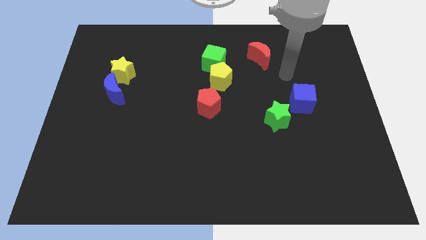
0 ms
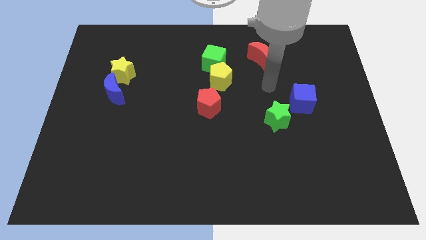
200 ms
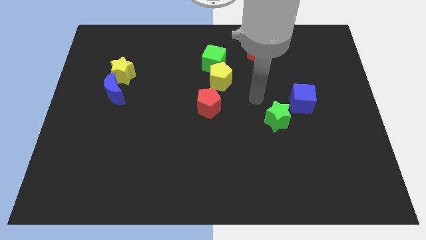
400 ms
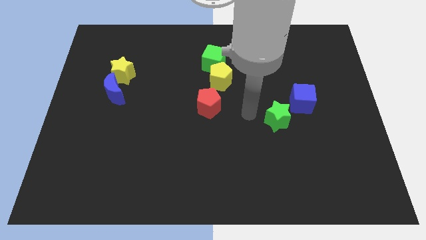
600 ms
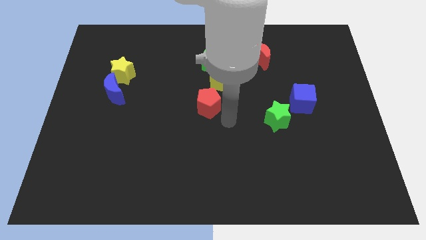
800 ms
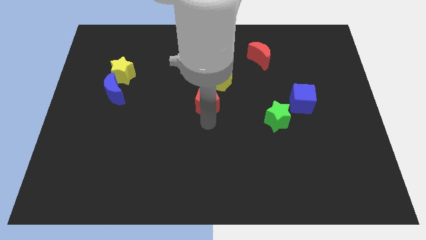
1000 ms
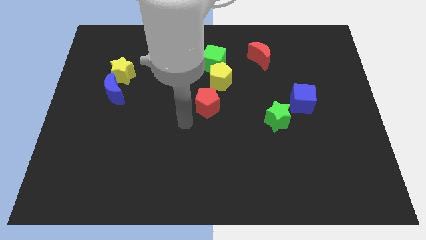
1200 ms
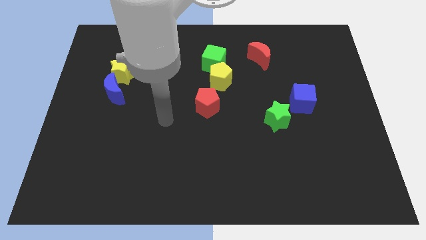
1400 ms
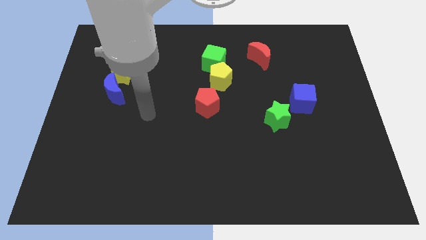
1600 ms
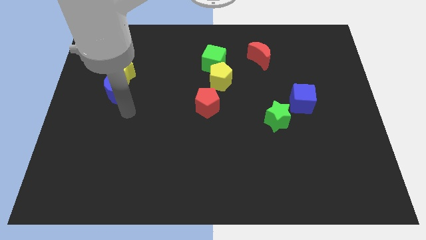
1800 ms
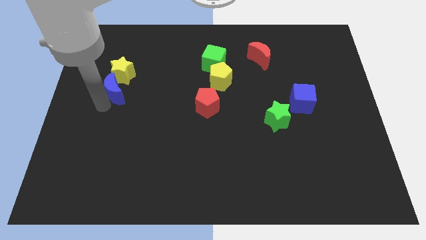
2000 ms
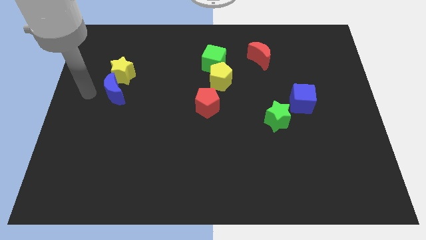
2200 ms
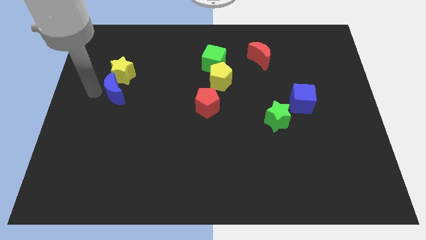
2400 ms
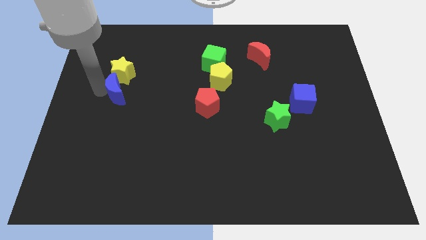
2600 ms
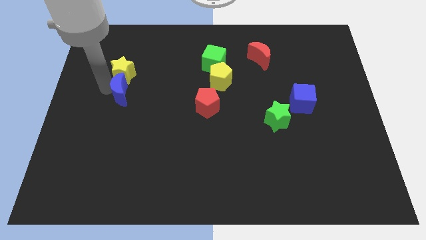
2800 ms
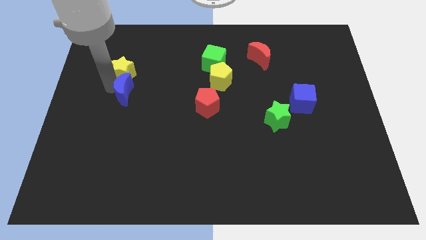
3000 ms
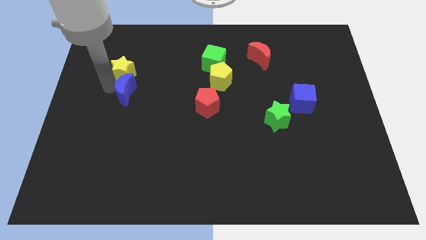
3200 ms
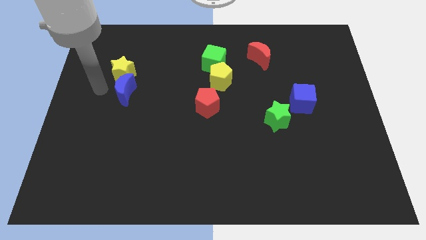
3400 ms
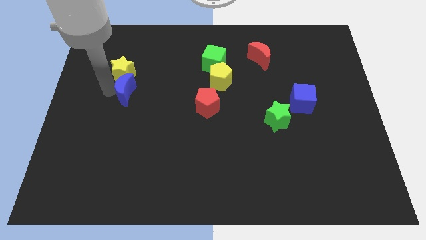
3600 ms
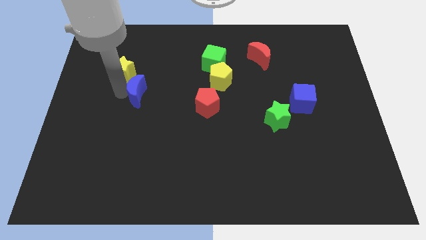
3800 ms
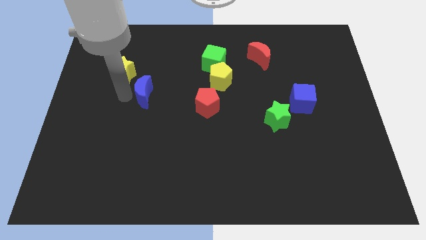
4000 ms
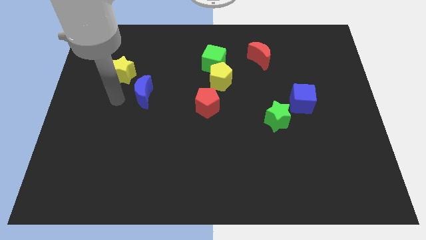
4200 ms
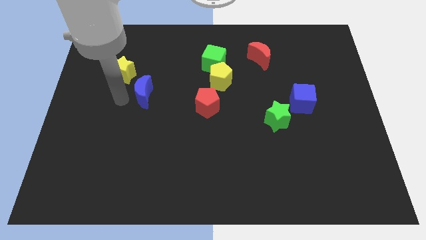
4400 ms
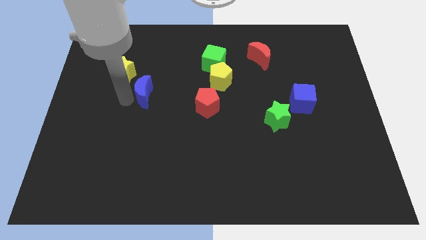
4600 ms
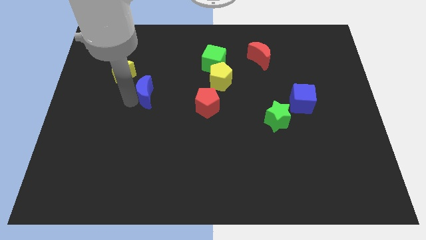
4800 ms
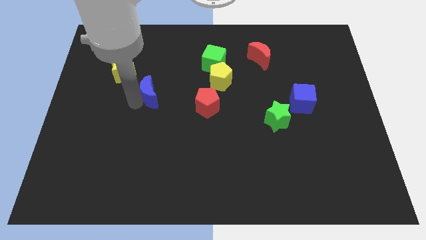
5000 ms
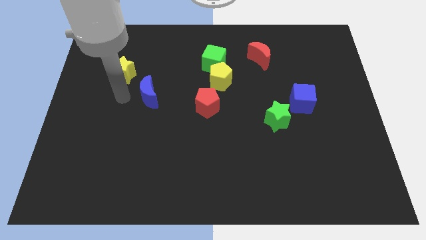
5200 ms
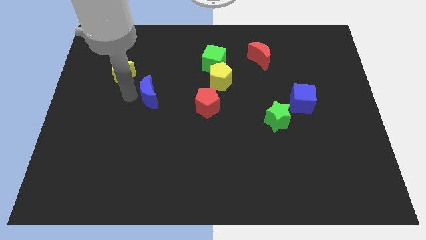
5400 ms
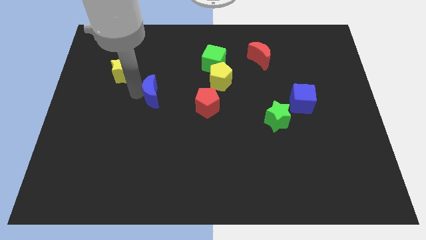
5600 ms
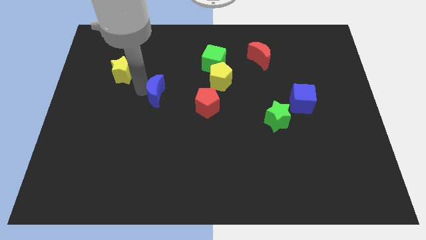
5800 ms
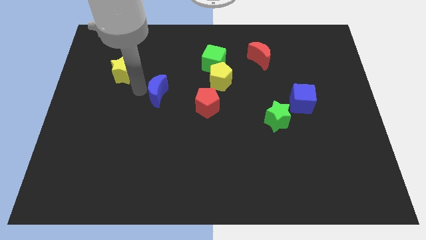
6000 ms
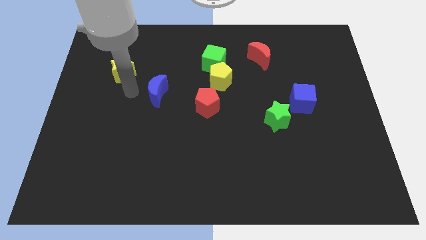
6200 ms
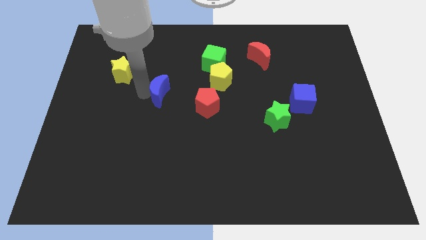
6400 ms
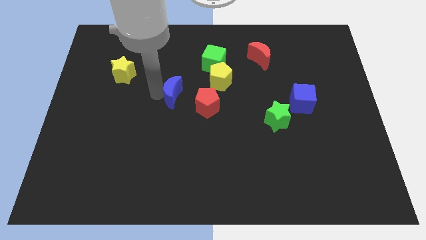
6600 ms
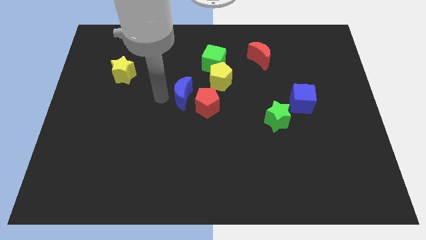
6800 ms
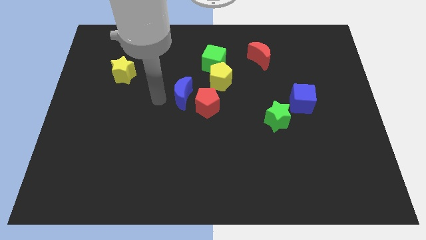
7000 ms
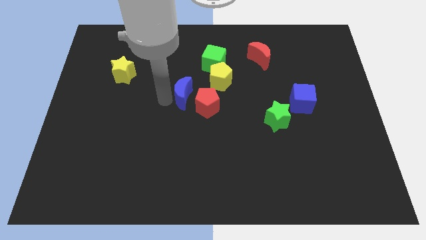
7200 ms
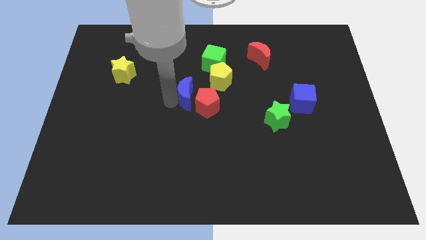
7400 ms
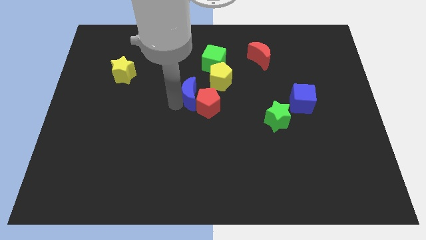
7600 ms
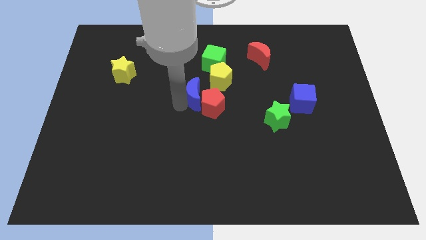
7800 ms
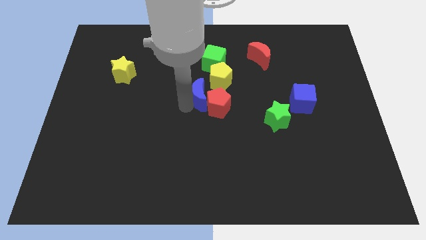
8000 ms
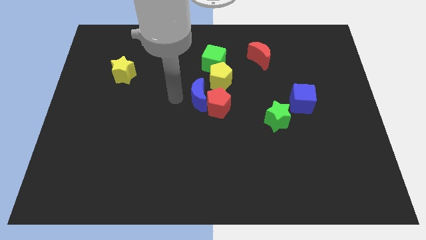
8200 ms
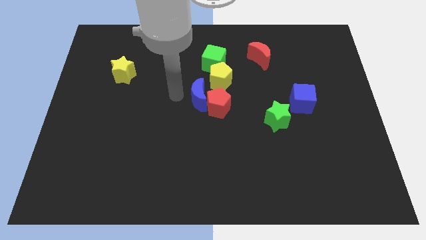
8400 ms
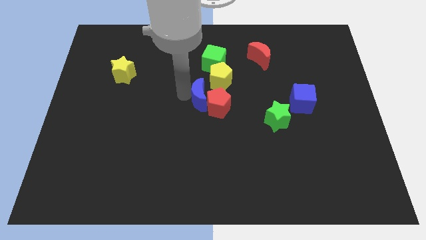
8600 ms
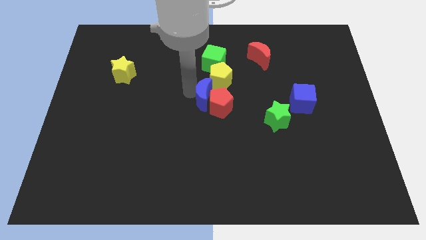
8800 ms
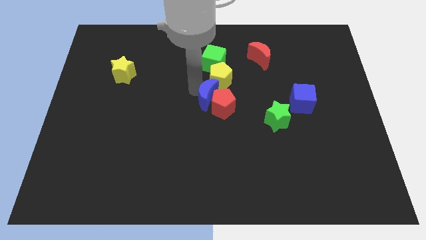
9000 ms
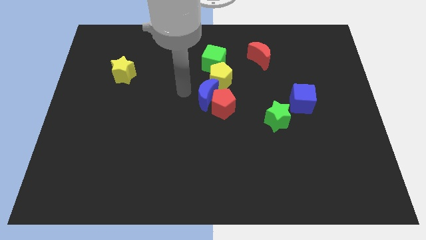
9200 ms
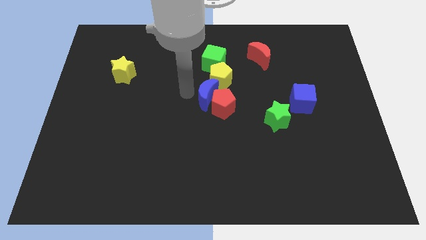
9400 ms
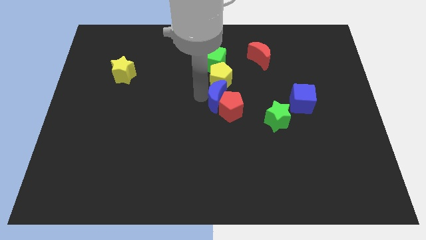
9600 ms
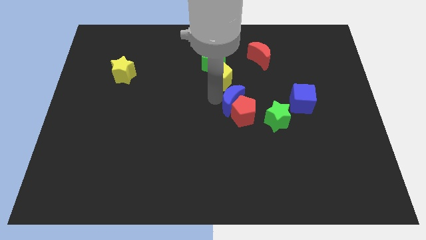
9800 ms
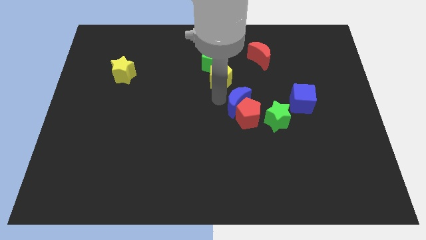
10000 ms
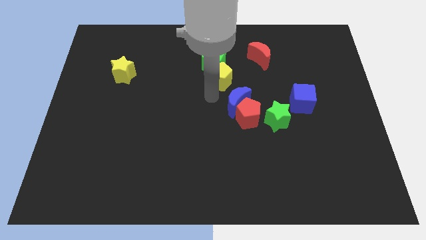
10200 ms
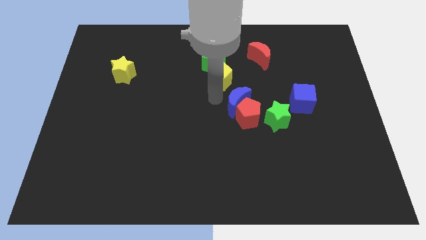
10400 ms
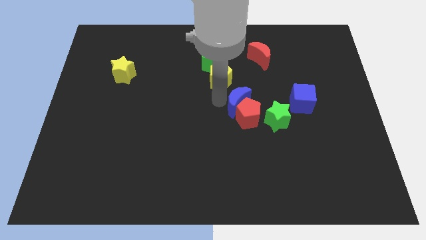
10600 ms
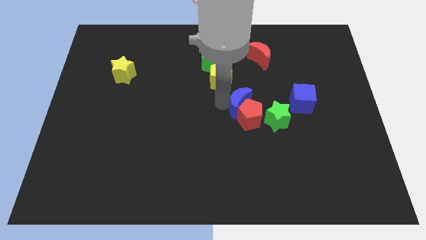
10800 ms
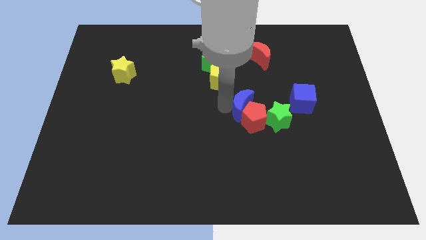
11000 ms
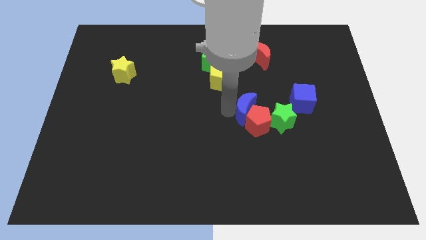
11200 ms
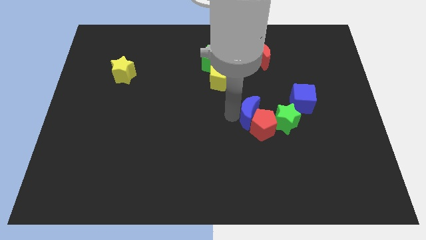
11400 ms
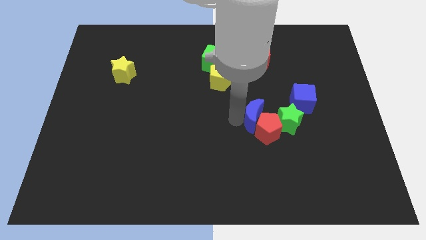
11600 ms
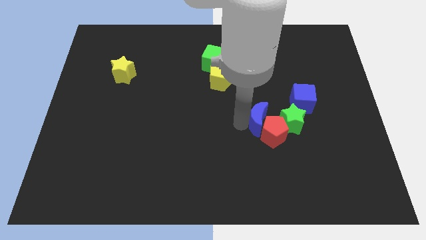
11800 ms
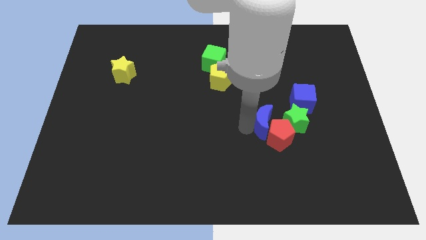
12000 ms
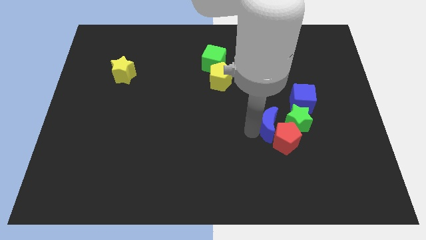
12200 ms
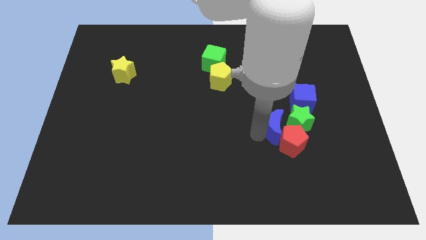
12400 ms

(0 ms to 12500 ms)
move the blue moon towards the green star

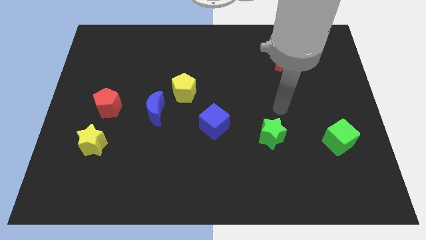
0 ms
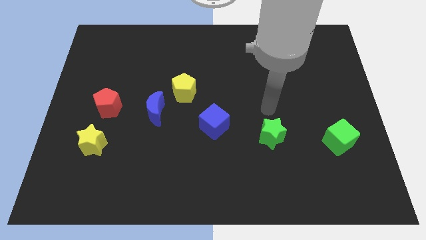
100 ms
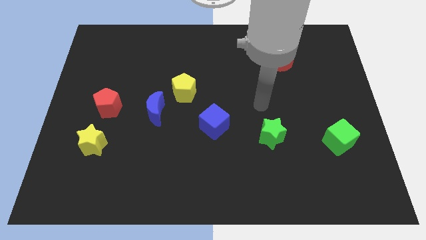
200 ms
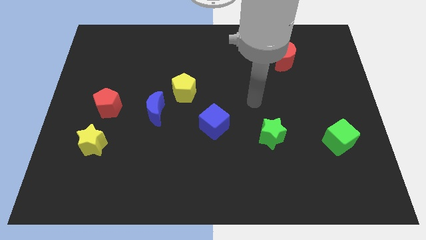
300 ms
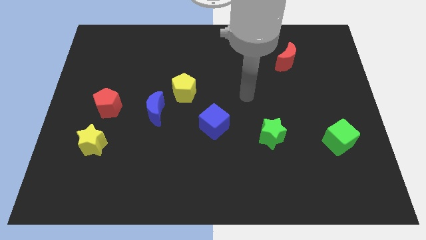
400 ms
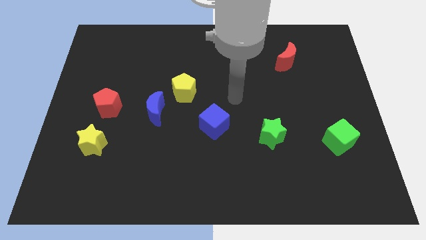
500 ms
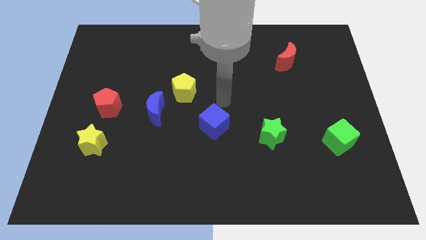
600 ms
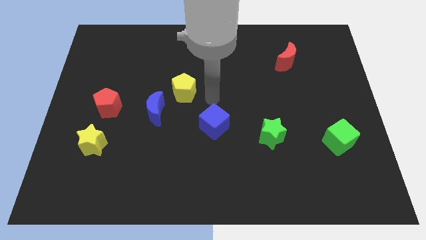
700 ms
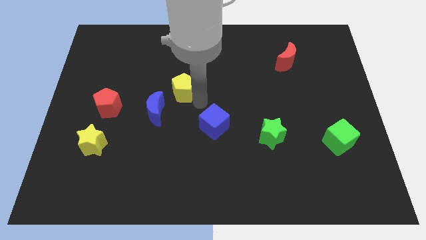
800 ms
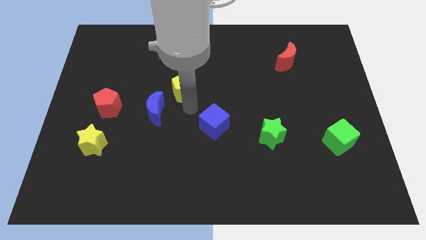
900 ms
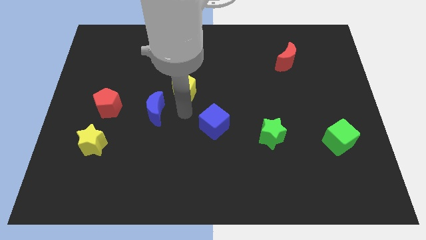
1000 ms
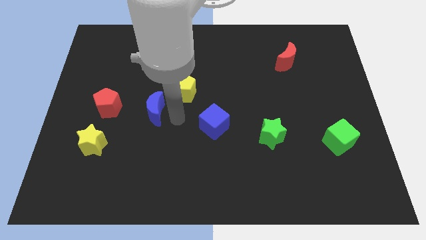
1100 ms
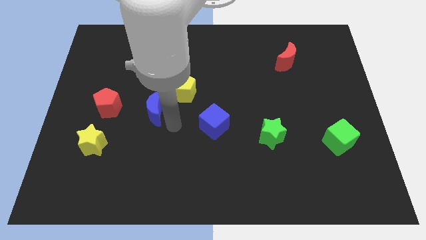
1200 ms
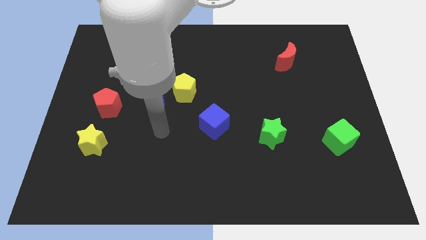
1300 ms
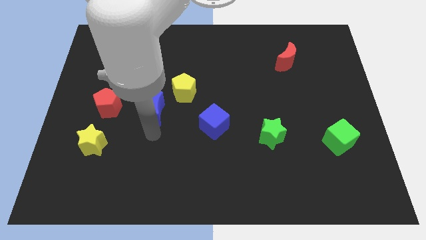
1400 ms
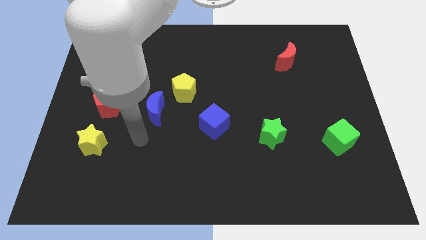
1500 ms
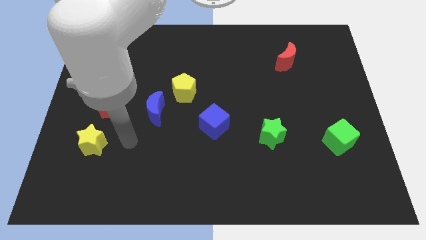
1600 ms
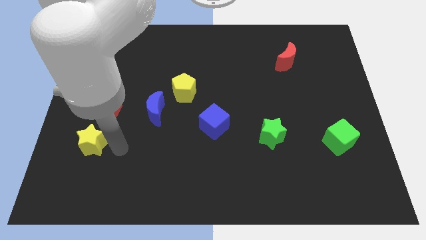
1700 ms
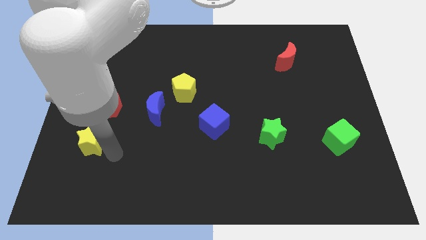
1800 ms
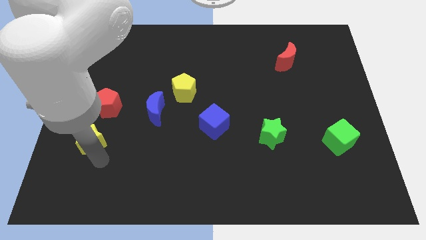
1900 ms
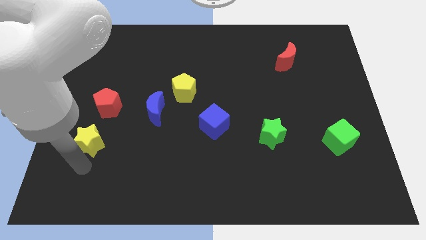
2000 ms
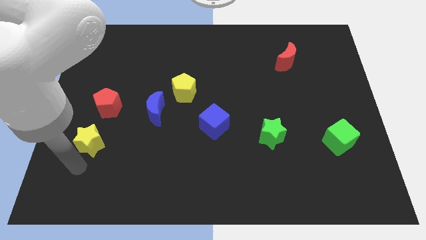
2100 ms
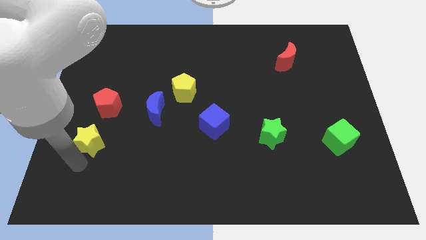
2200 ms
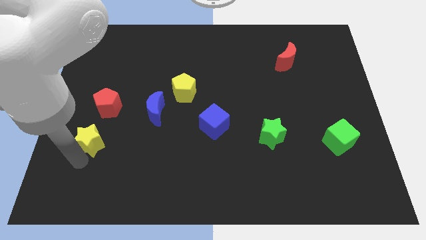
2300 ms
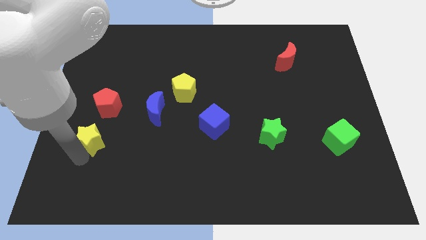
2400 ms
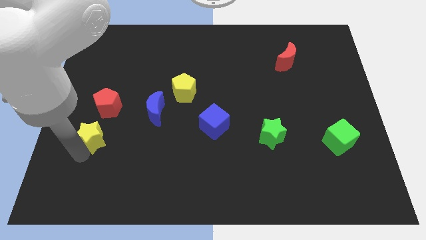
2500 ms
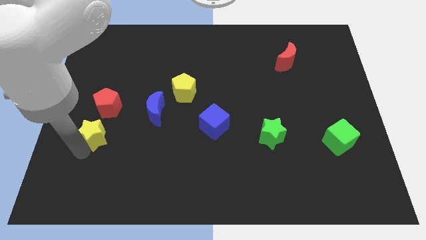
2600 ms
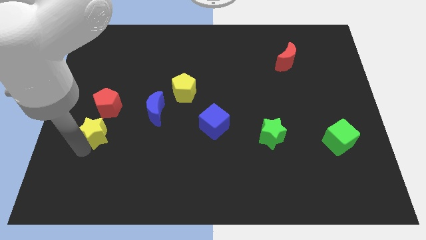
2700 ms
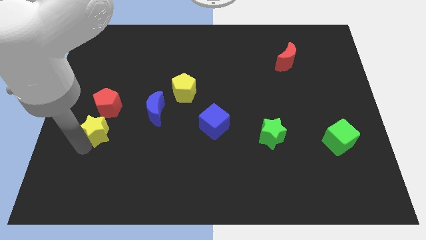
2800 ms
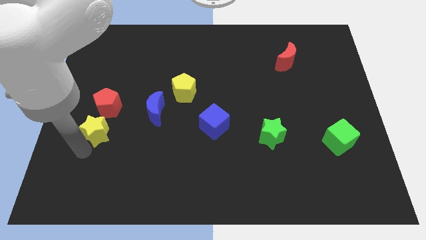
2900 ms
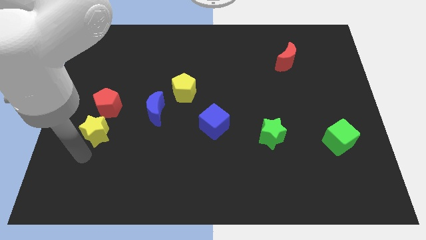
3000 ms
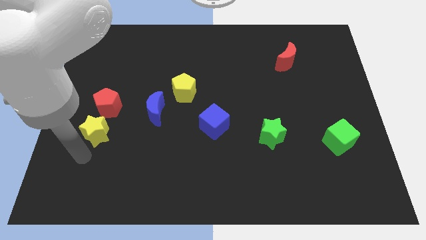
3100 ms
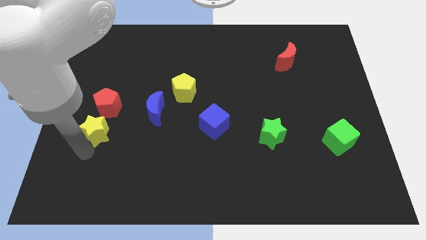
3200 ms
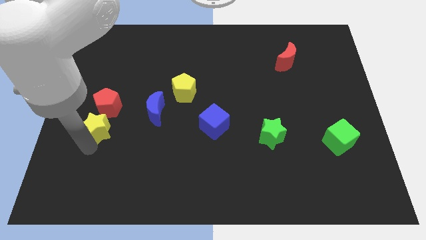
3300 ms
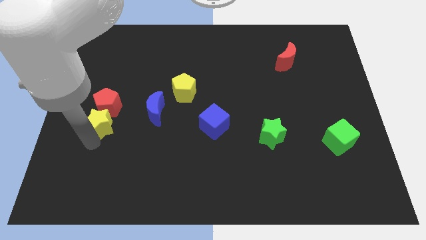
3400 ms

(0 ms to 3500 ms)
put the yellow star to the red pentagon
